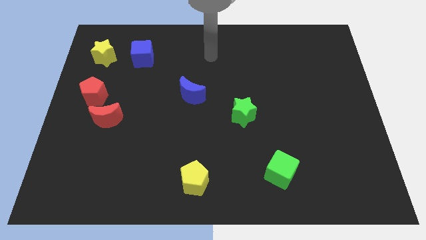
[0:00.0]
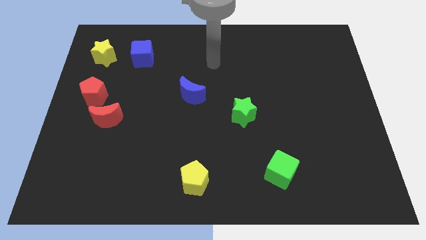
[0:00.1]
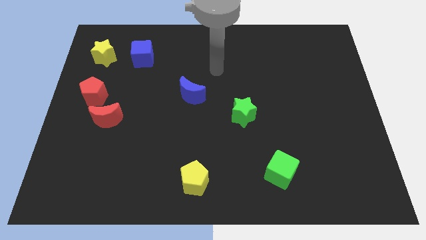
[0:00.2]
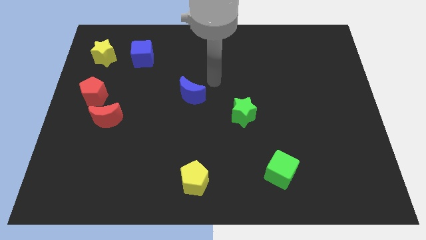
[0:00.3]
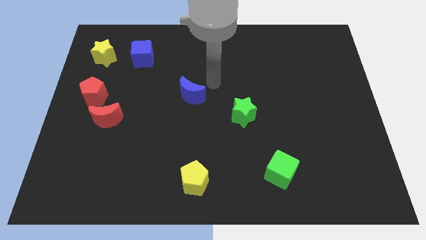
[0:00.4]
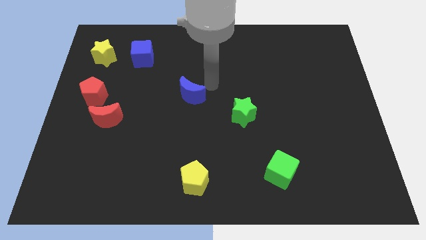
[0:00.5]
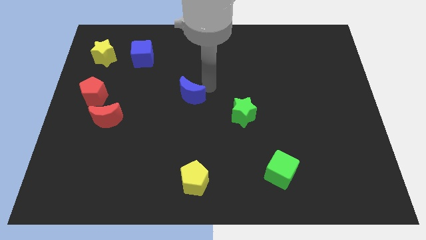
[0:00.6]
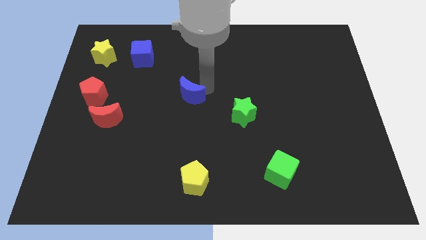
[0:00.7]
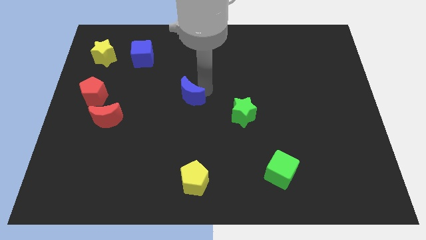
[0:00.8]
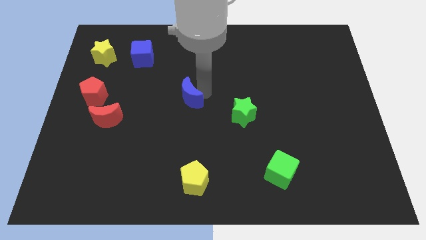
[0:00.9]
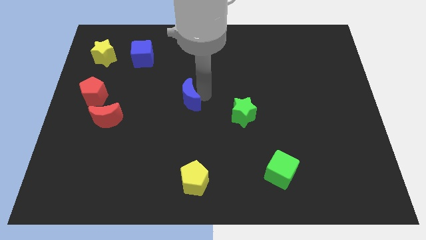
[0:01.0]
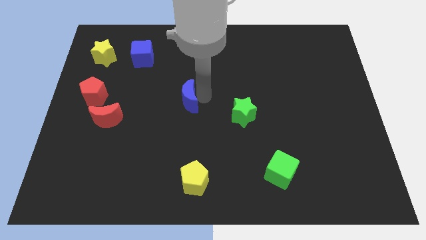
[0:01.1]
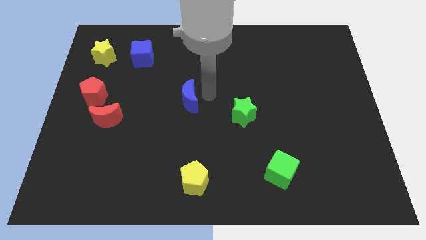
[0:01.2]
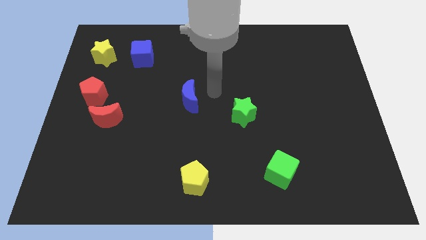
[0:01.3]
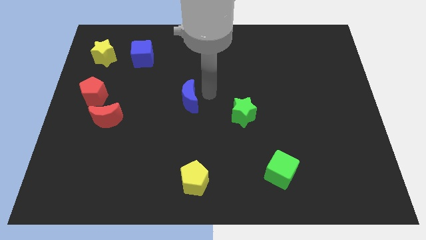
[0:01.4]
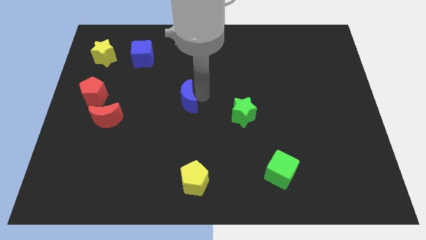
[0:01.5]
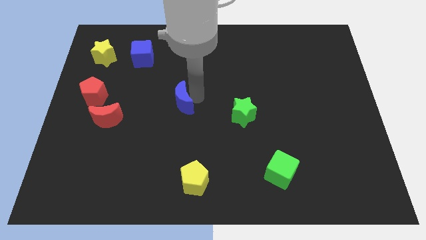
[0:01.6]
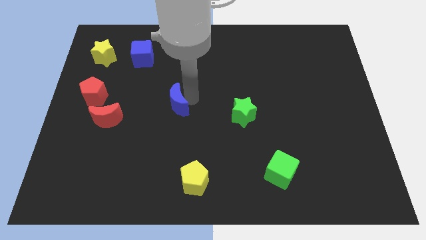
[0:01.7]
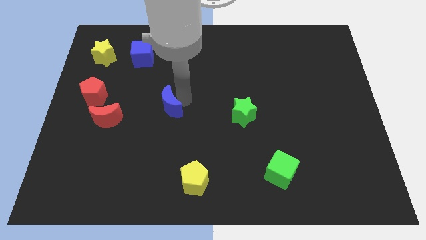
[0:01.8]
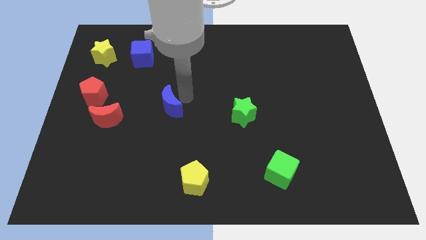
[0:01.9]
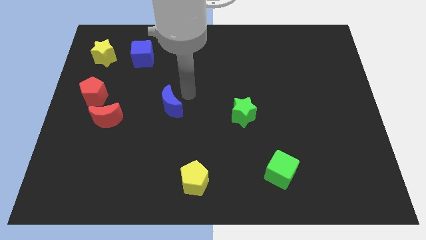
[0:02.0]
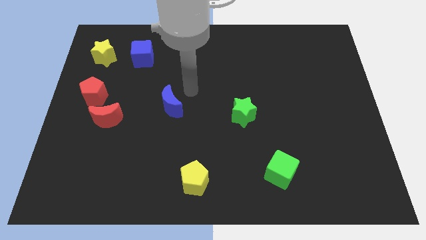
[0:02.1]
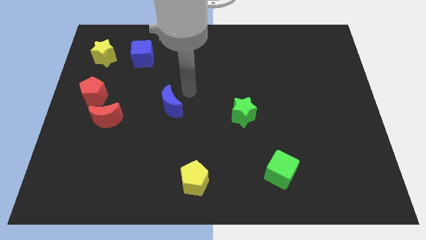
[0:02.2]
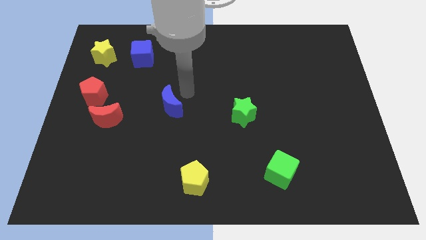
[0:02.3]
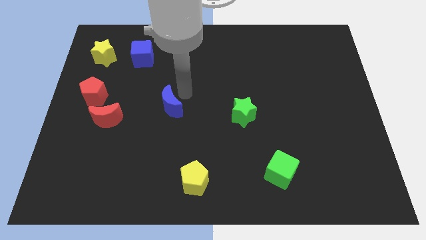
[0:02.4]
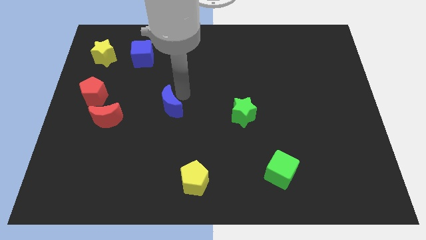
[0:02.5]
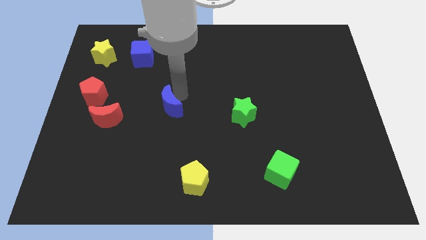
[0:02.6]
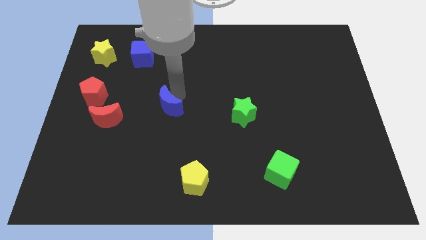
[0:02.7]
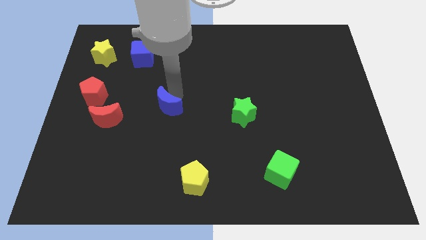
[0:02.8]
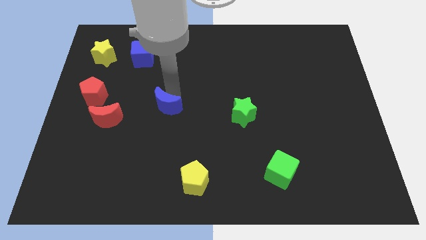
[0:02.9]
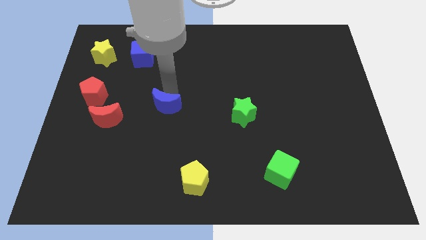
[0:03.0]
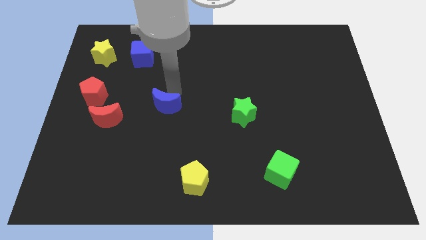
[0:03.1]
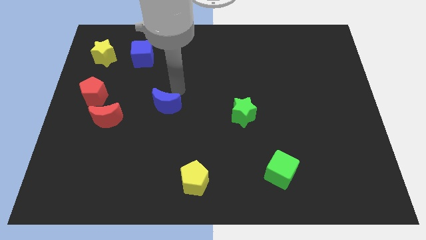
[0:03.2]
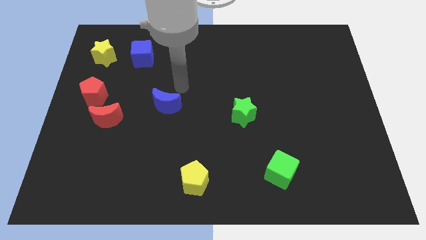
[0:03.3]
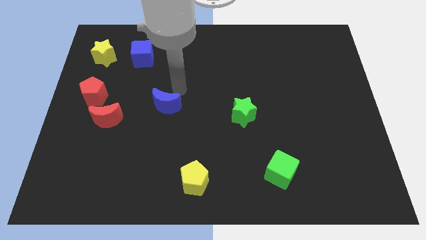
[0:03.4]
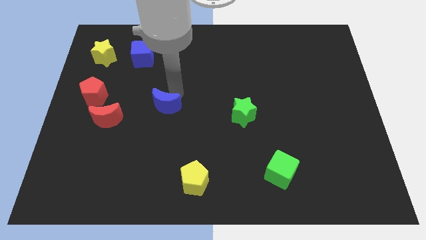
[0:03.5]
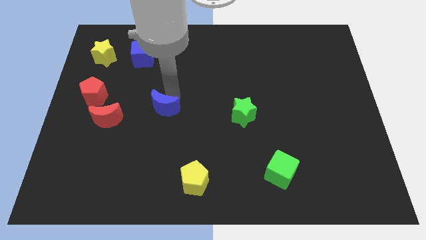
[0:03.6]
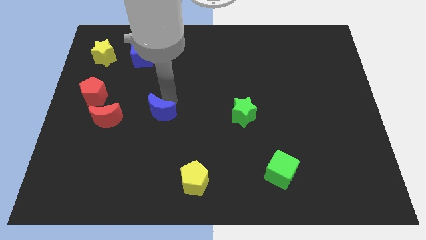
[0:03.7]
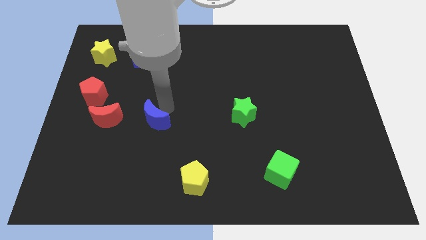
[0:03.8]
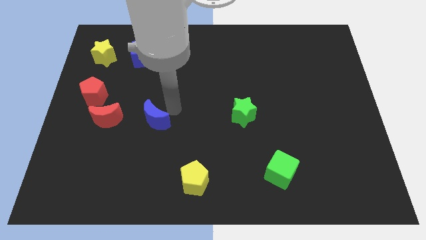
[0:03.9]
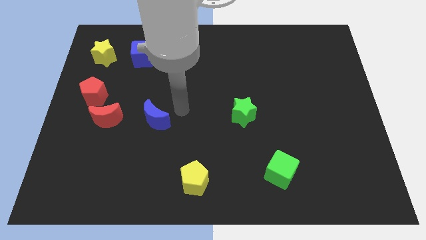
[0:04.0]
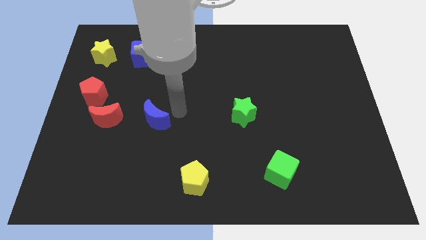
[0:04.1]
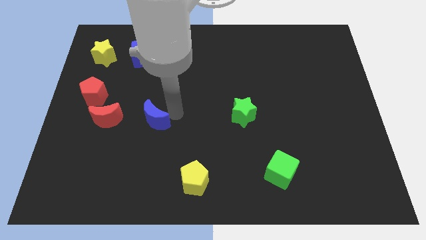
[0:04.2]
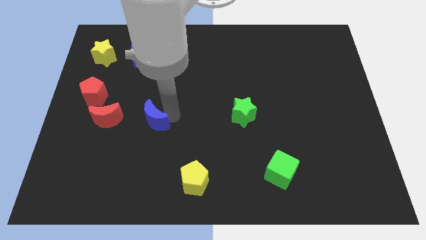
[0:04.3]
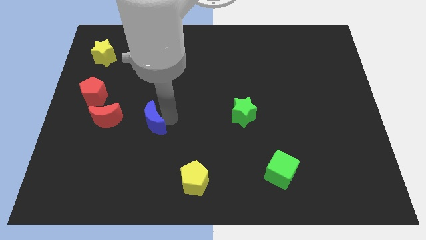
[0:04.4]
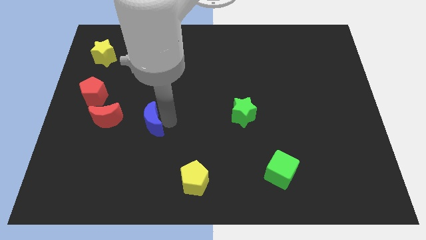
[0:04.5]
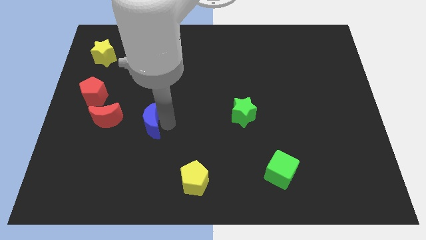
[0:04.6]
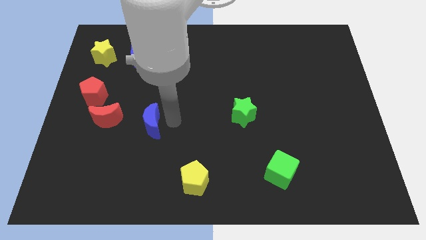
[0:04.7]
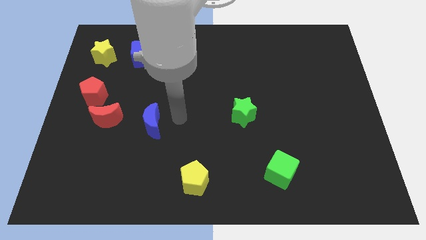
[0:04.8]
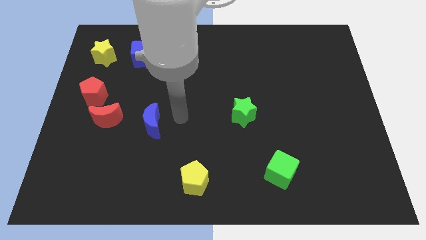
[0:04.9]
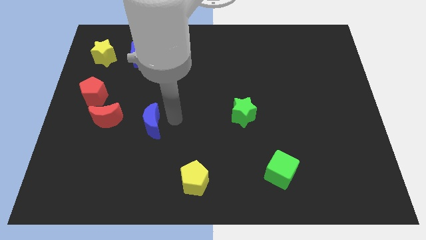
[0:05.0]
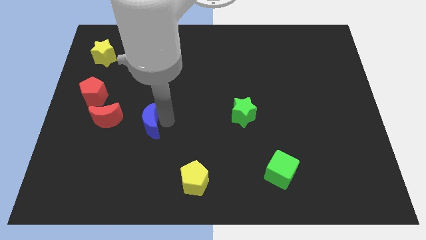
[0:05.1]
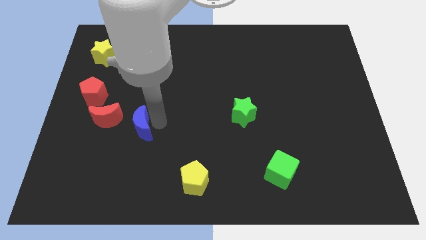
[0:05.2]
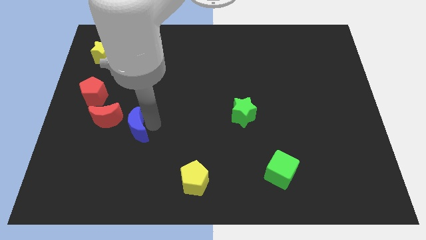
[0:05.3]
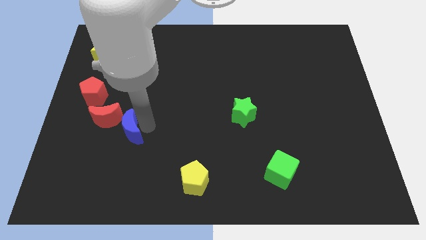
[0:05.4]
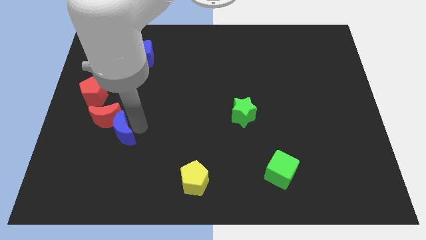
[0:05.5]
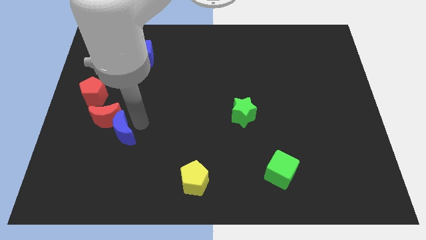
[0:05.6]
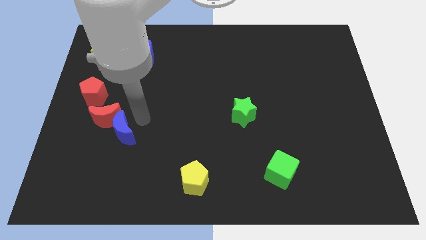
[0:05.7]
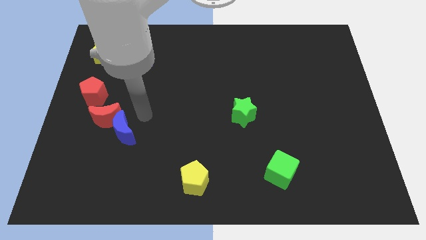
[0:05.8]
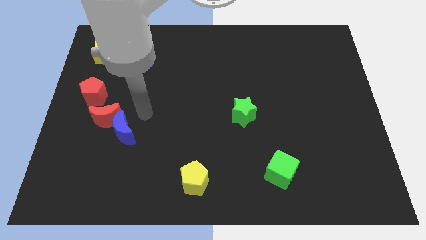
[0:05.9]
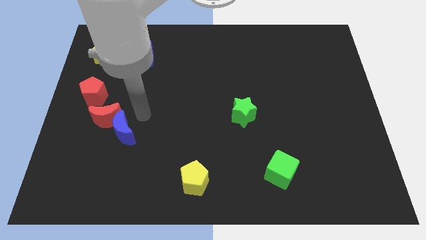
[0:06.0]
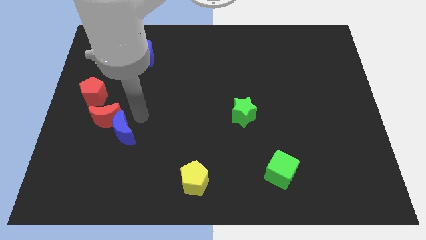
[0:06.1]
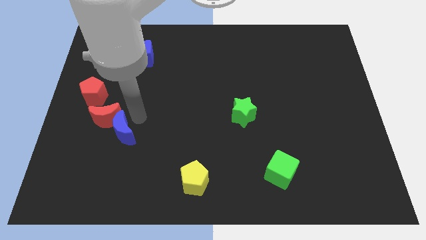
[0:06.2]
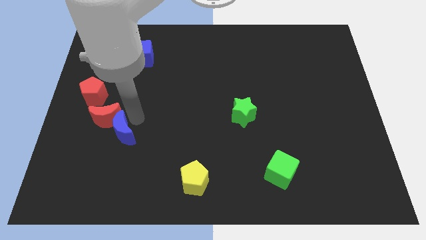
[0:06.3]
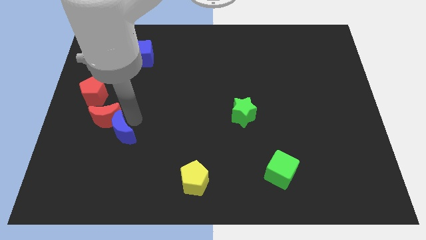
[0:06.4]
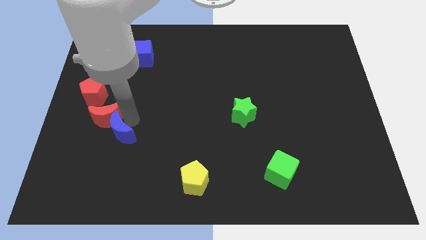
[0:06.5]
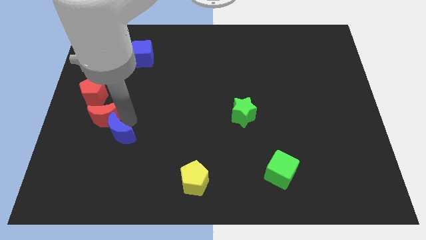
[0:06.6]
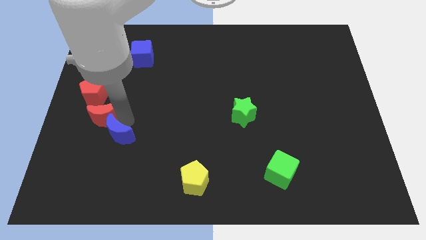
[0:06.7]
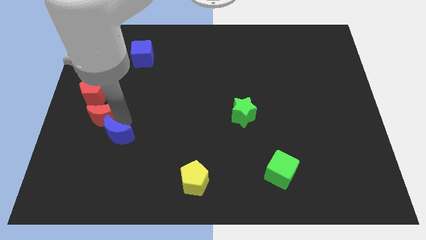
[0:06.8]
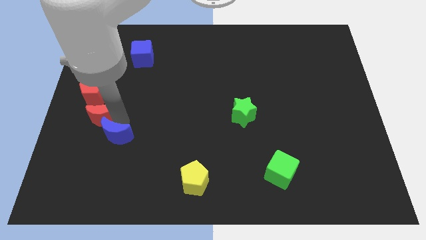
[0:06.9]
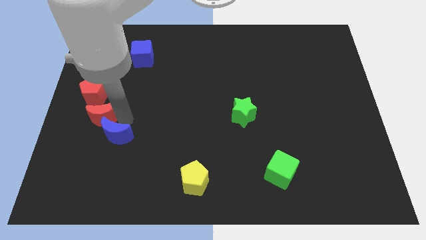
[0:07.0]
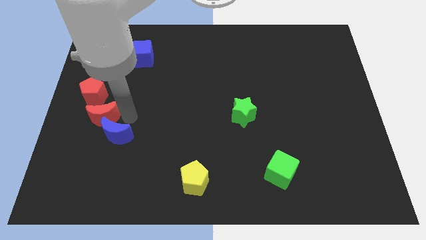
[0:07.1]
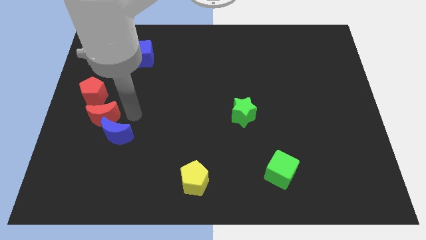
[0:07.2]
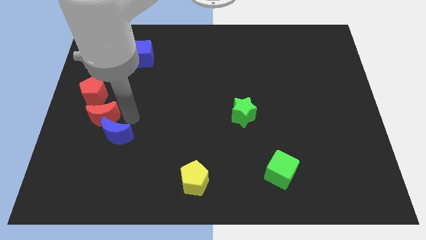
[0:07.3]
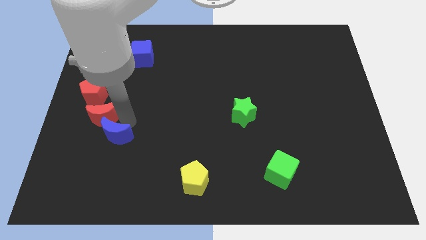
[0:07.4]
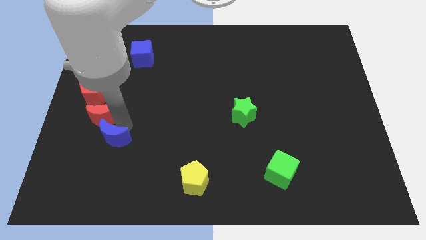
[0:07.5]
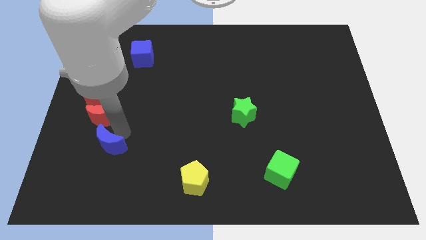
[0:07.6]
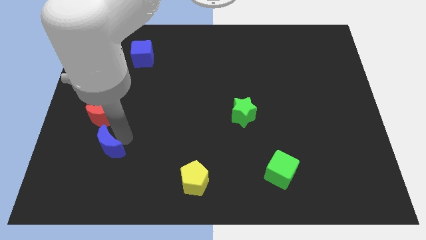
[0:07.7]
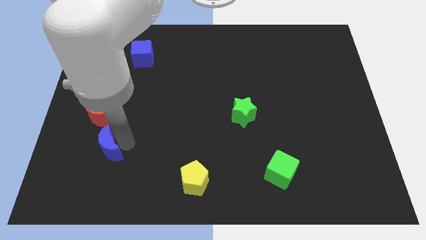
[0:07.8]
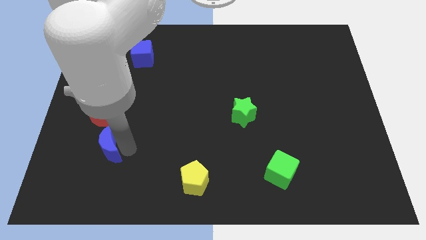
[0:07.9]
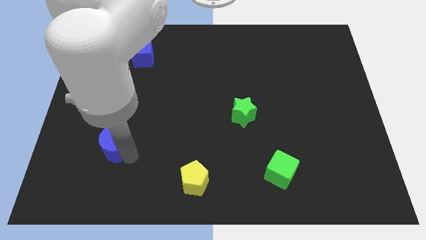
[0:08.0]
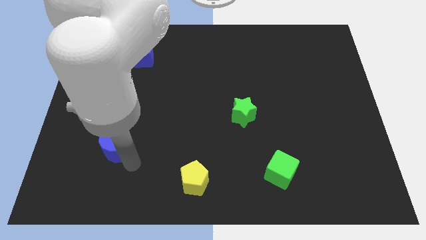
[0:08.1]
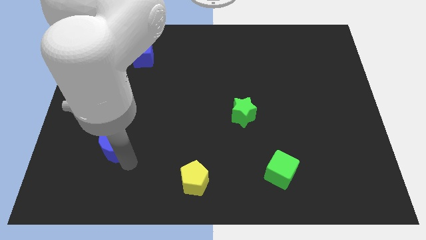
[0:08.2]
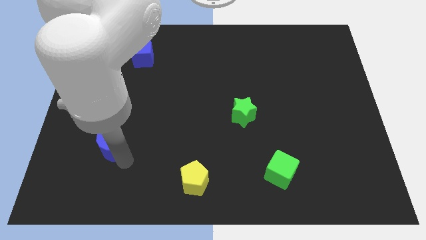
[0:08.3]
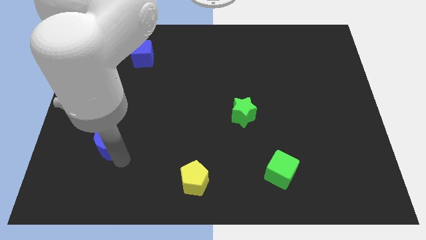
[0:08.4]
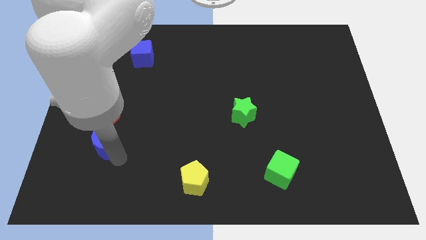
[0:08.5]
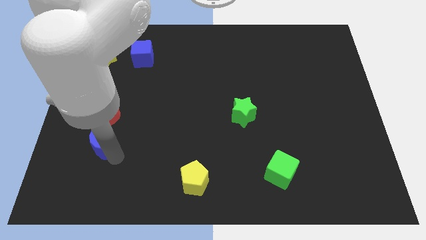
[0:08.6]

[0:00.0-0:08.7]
slide the blue moon below the red pentagon
